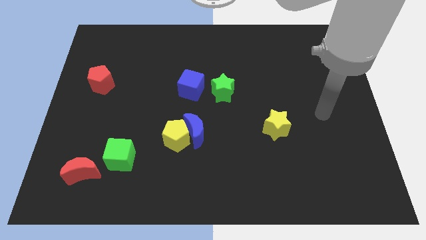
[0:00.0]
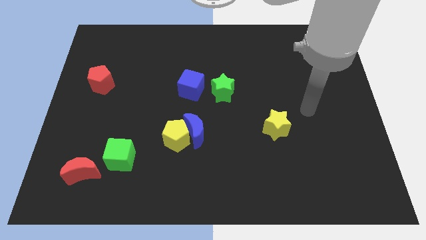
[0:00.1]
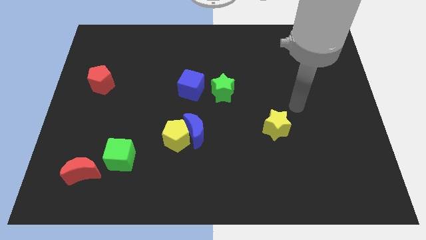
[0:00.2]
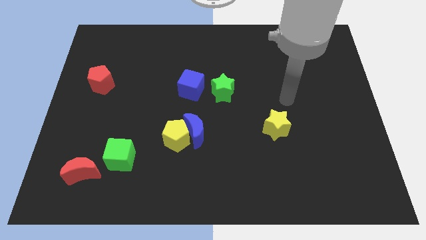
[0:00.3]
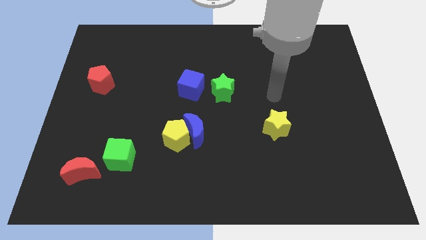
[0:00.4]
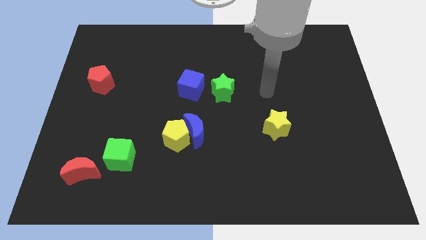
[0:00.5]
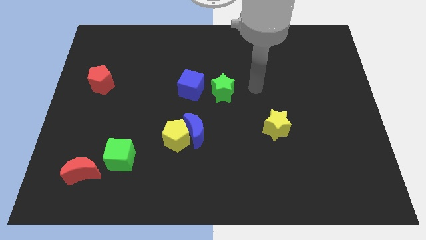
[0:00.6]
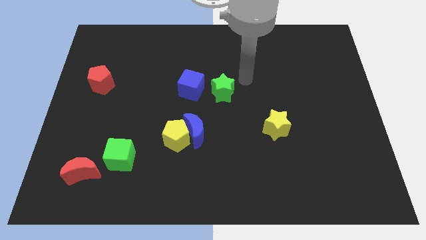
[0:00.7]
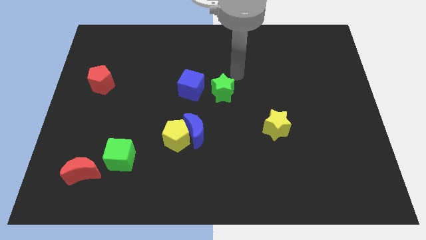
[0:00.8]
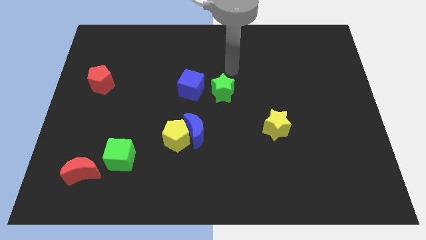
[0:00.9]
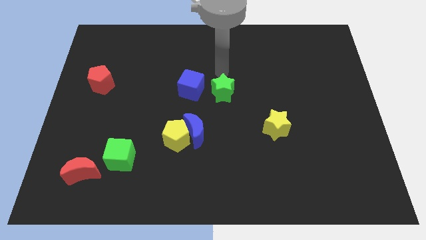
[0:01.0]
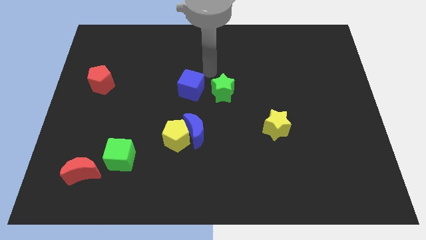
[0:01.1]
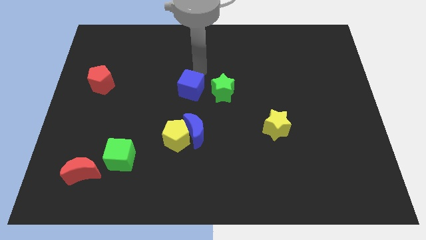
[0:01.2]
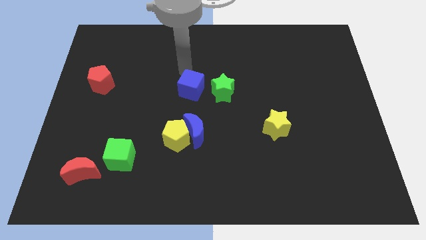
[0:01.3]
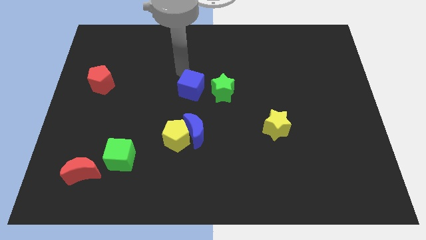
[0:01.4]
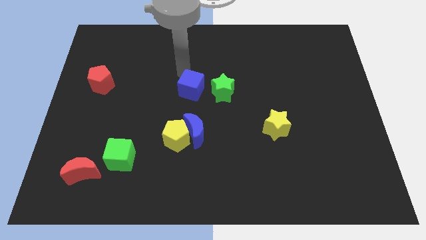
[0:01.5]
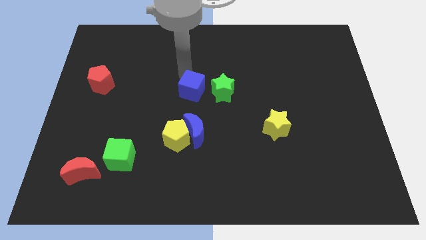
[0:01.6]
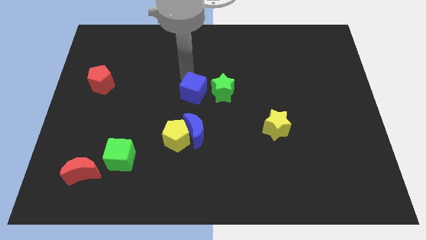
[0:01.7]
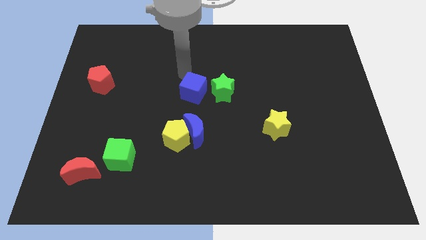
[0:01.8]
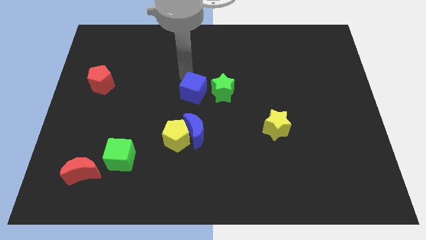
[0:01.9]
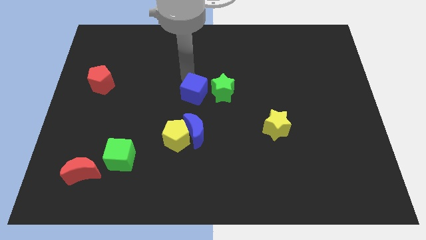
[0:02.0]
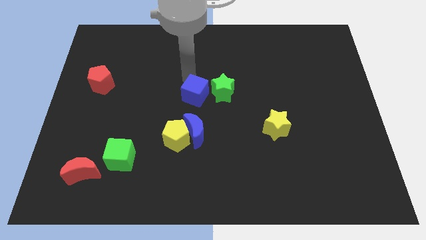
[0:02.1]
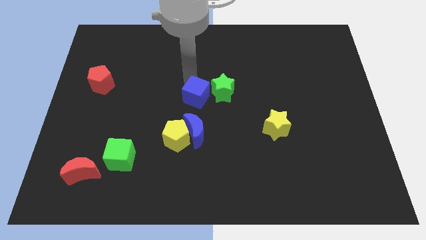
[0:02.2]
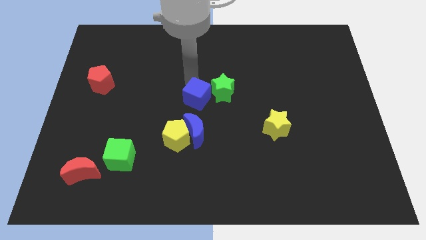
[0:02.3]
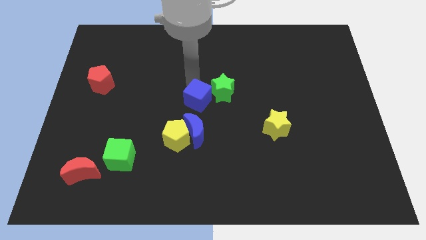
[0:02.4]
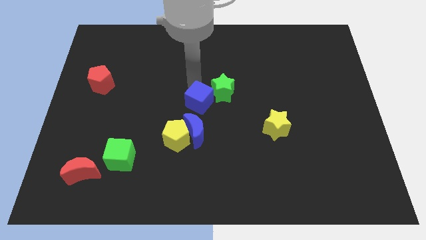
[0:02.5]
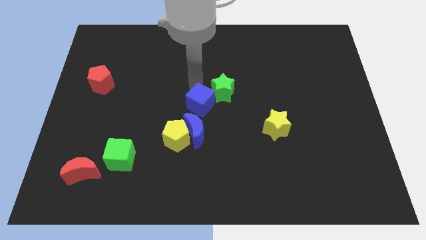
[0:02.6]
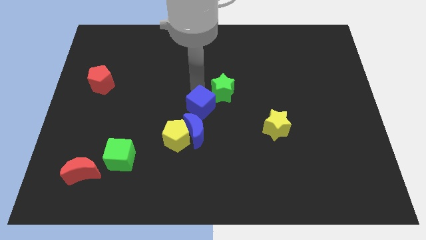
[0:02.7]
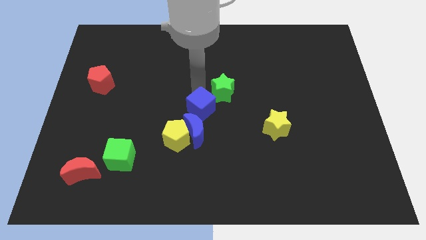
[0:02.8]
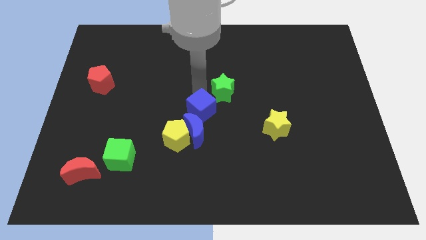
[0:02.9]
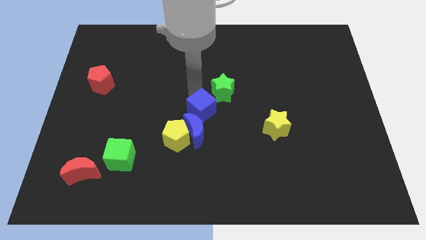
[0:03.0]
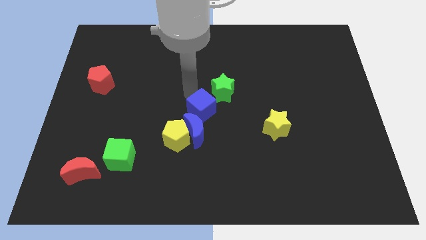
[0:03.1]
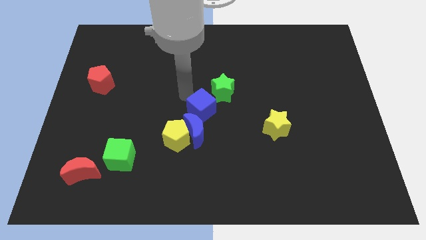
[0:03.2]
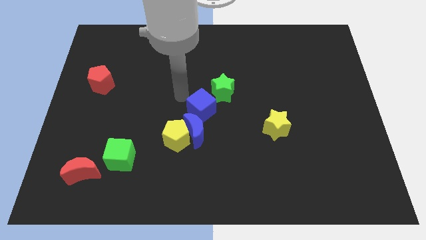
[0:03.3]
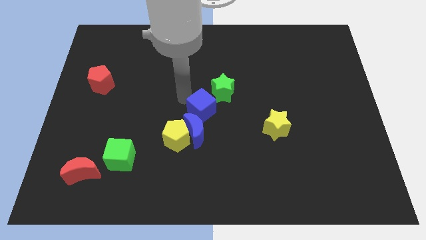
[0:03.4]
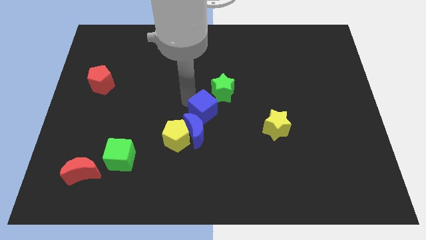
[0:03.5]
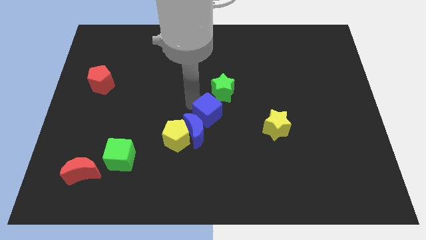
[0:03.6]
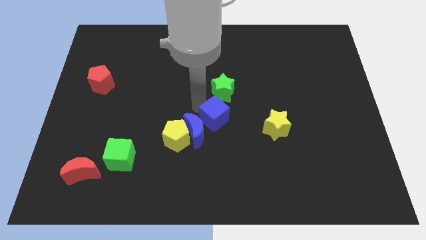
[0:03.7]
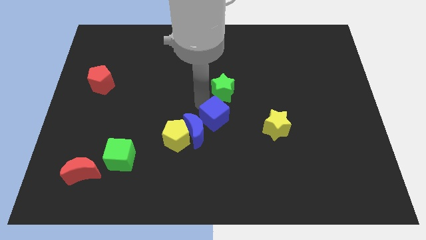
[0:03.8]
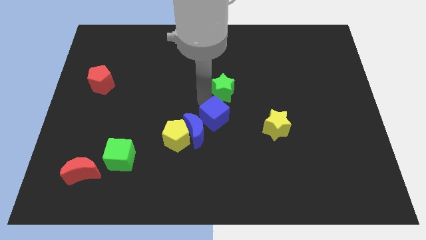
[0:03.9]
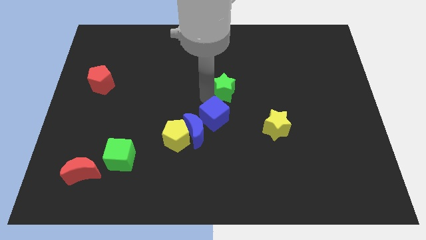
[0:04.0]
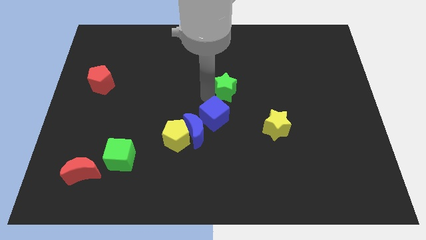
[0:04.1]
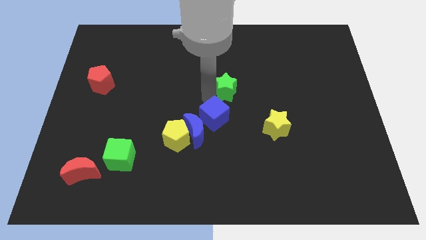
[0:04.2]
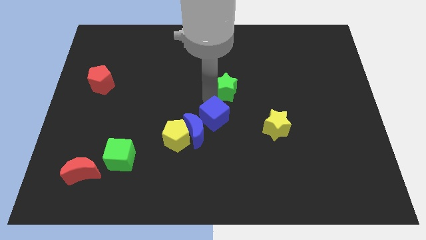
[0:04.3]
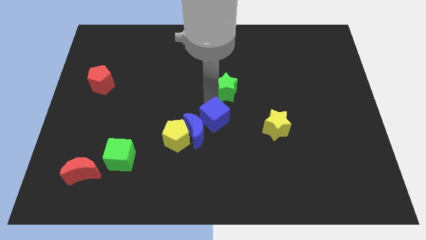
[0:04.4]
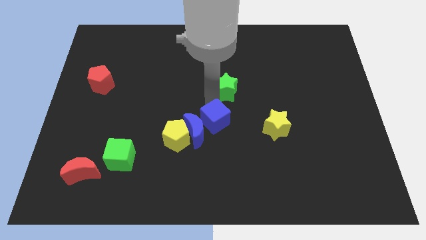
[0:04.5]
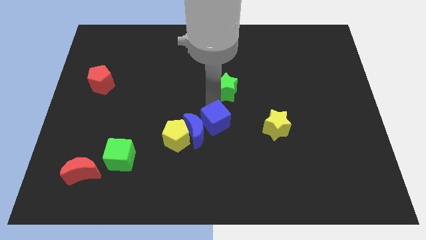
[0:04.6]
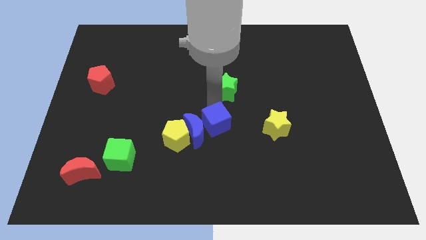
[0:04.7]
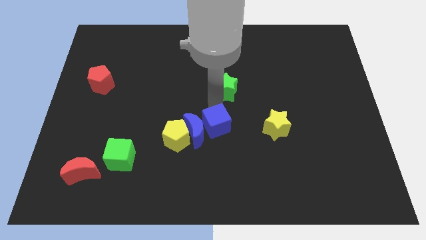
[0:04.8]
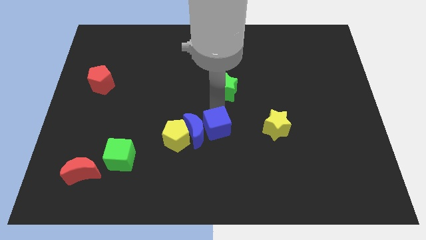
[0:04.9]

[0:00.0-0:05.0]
put the blue cube to the bottom right of the blue moon

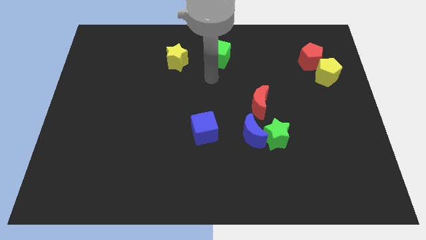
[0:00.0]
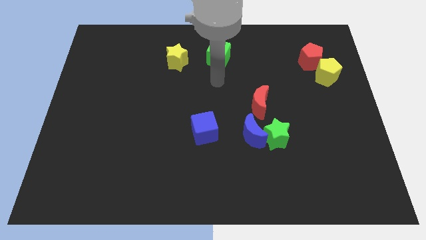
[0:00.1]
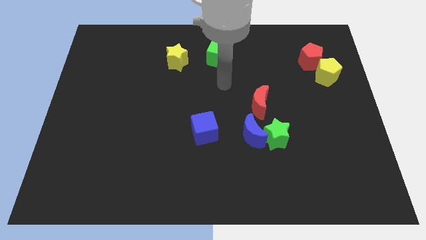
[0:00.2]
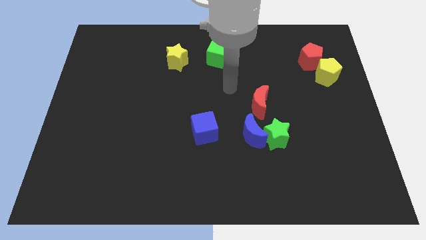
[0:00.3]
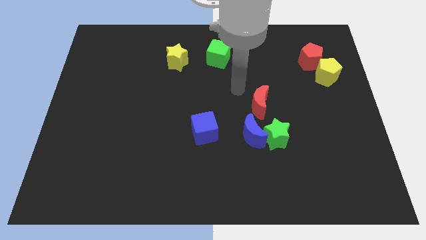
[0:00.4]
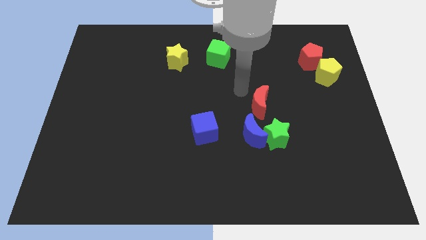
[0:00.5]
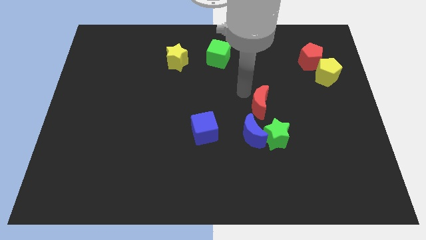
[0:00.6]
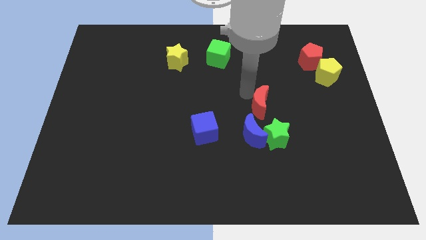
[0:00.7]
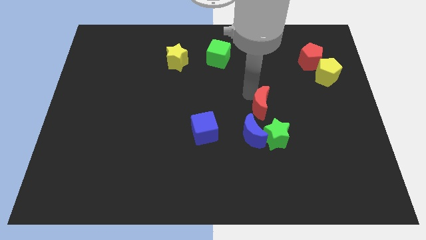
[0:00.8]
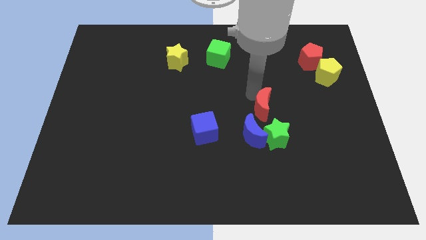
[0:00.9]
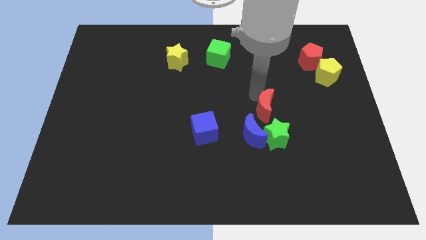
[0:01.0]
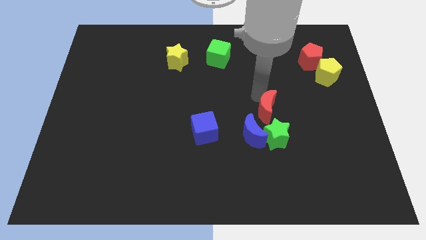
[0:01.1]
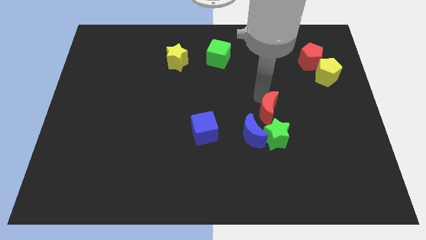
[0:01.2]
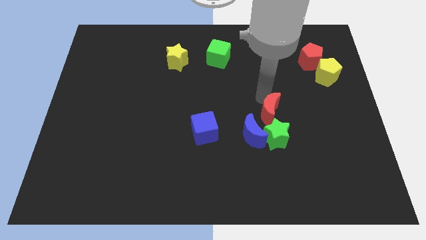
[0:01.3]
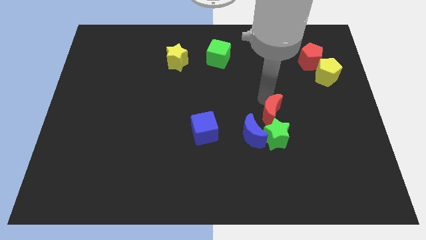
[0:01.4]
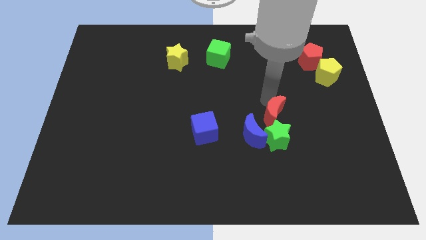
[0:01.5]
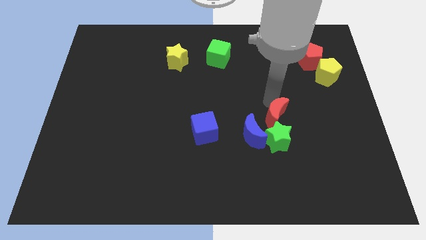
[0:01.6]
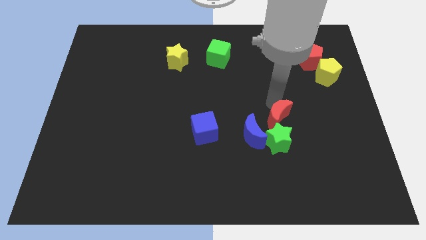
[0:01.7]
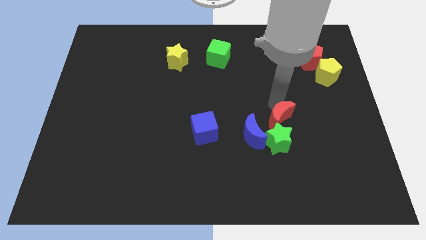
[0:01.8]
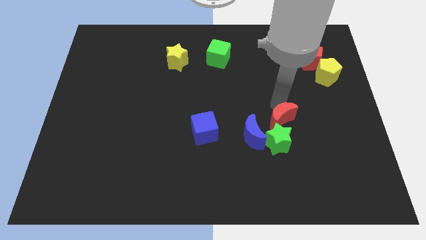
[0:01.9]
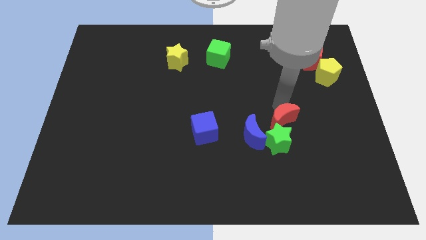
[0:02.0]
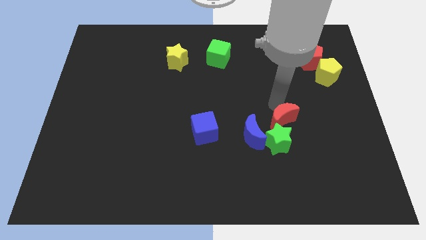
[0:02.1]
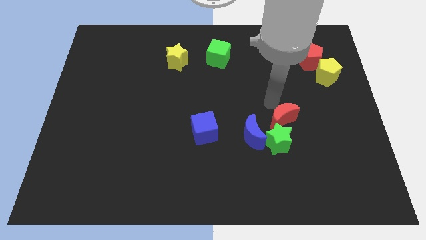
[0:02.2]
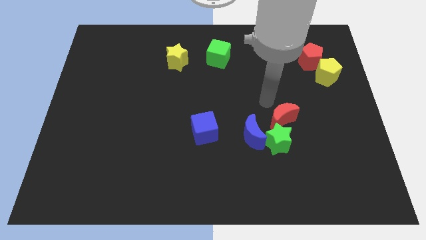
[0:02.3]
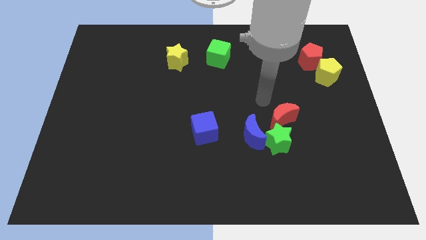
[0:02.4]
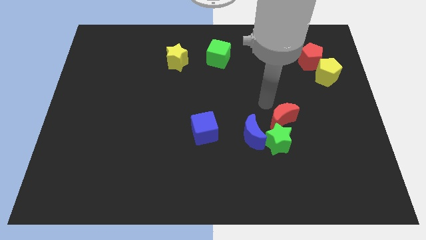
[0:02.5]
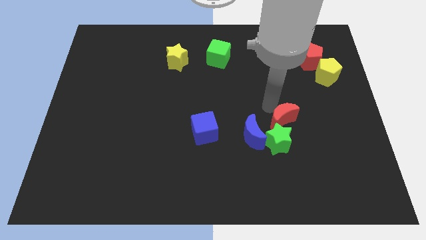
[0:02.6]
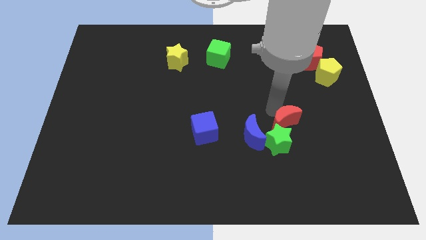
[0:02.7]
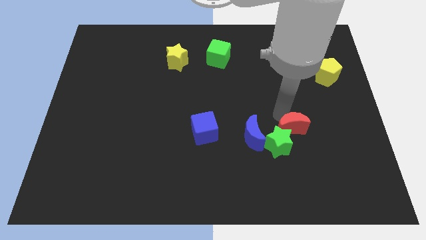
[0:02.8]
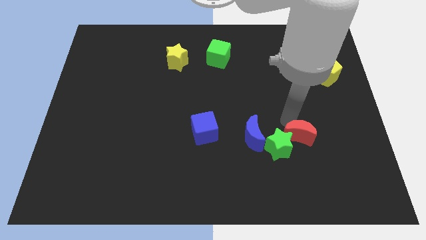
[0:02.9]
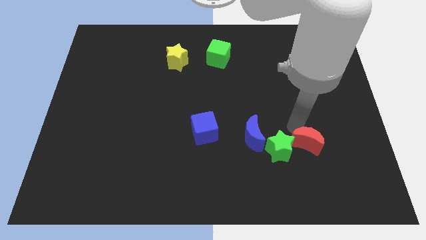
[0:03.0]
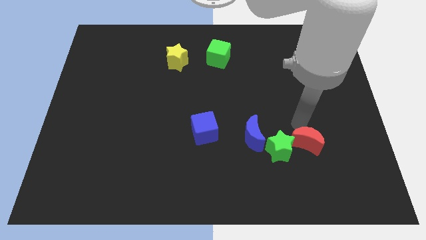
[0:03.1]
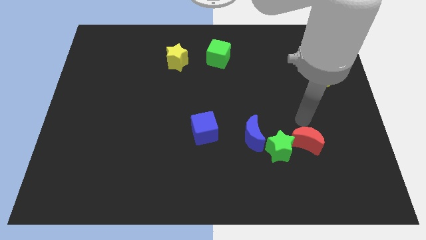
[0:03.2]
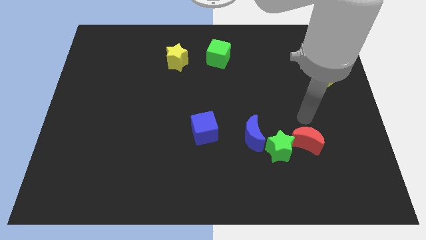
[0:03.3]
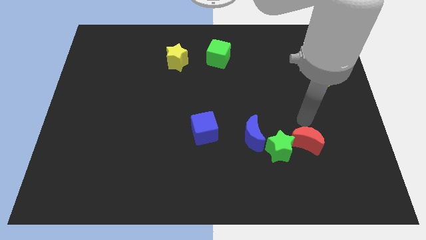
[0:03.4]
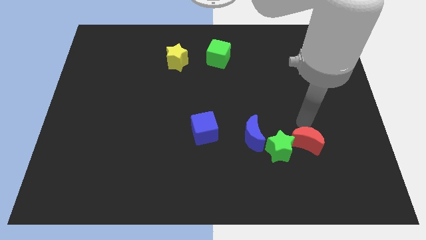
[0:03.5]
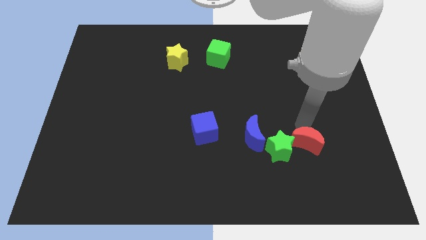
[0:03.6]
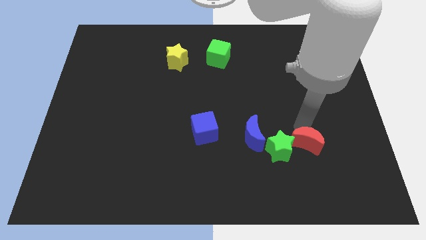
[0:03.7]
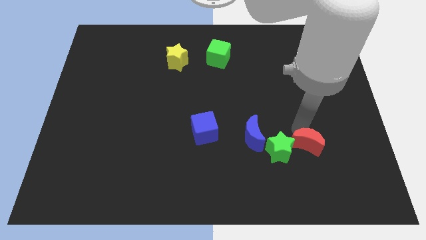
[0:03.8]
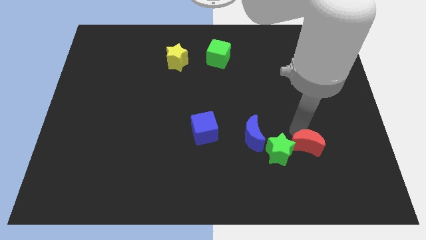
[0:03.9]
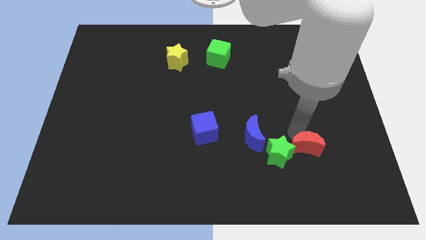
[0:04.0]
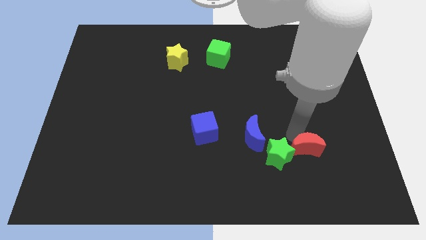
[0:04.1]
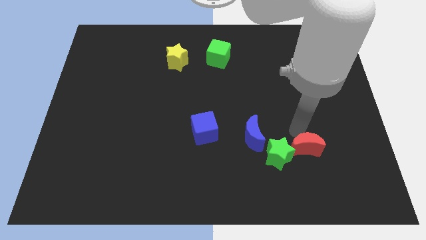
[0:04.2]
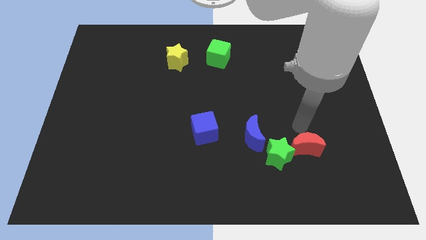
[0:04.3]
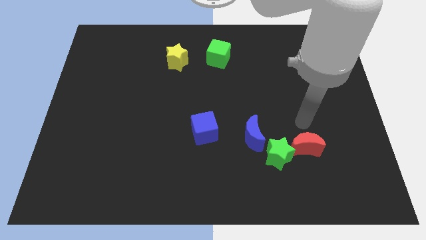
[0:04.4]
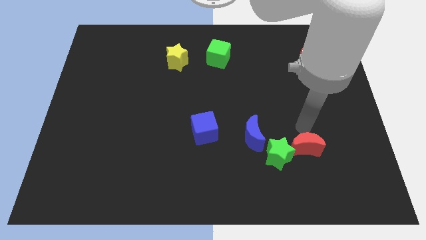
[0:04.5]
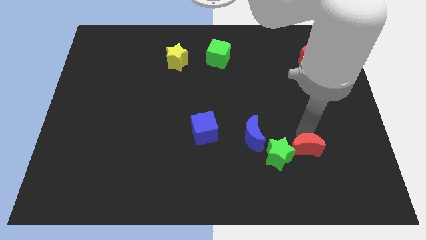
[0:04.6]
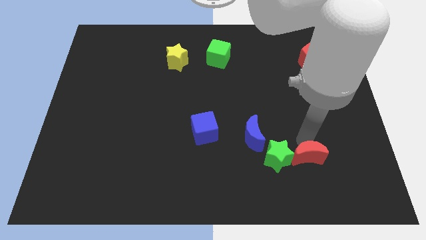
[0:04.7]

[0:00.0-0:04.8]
push the red moon to the bottom right of the green star
